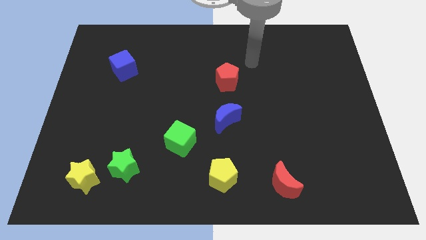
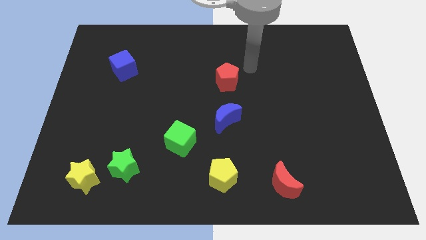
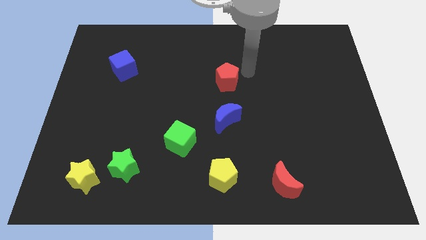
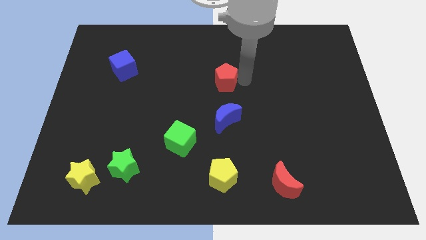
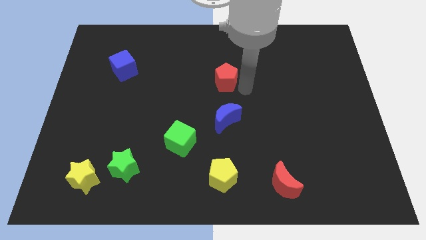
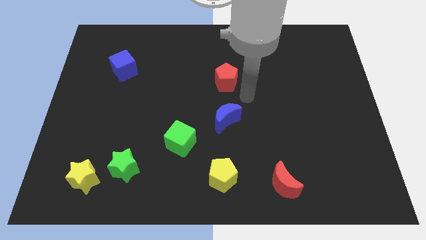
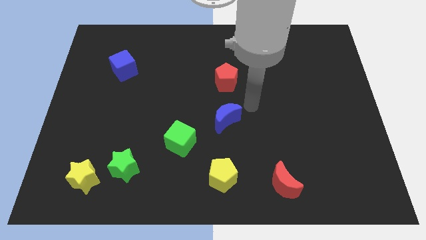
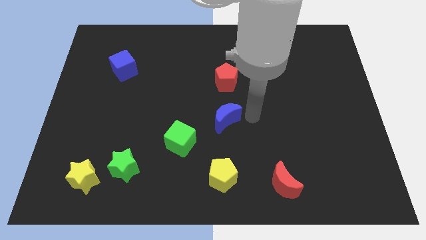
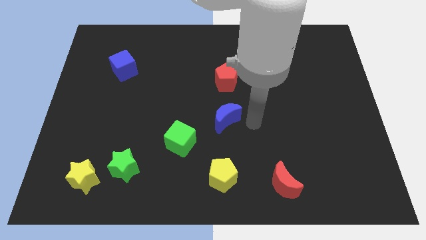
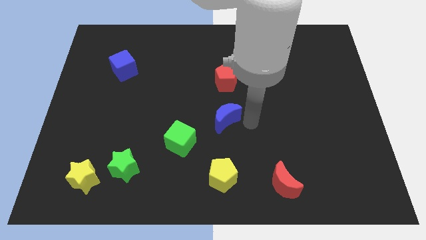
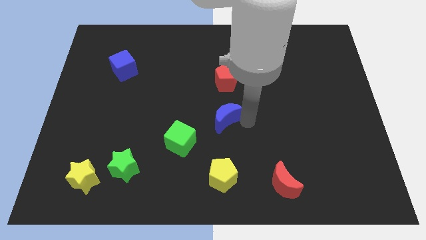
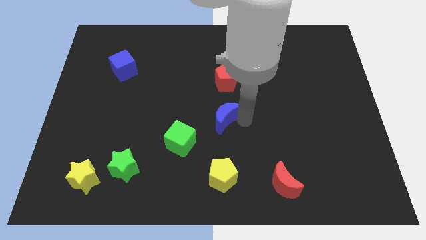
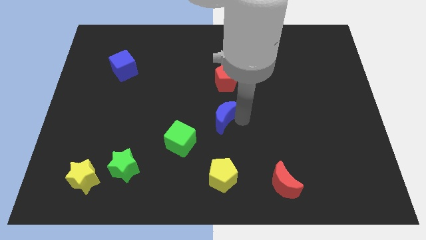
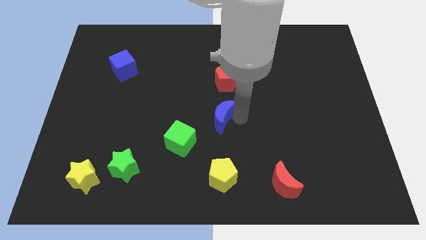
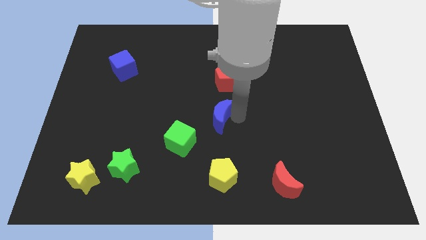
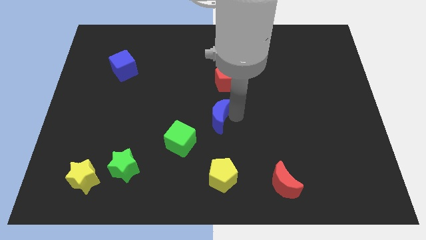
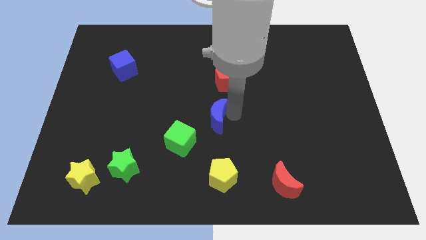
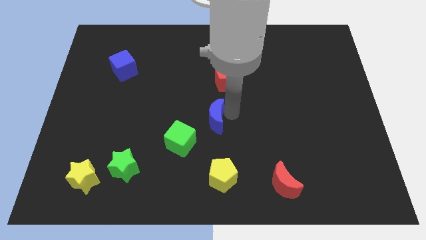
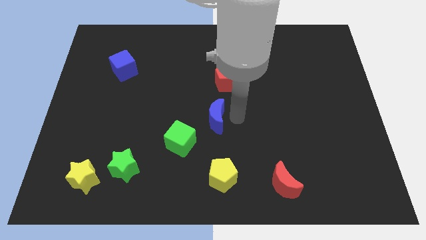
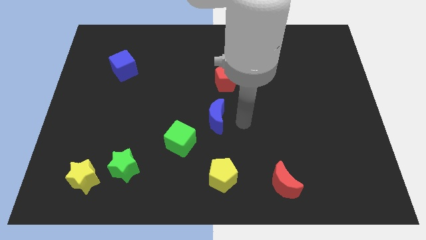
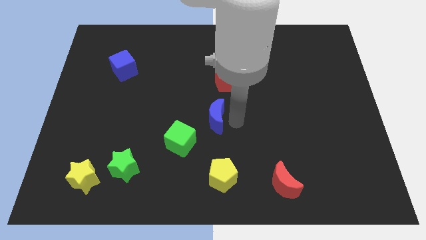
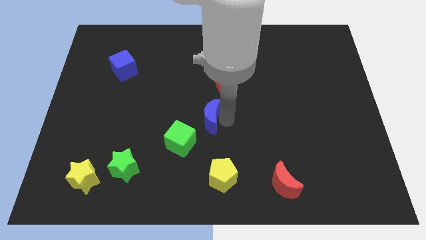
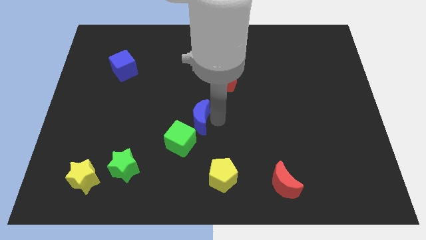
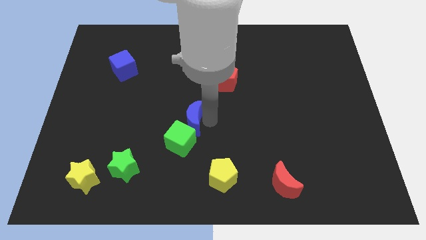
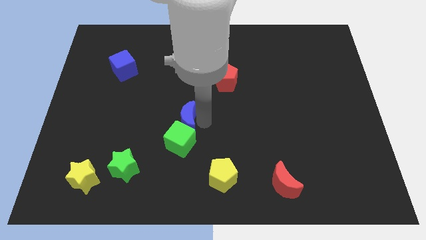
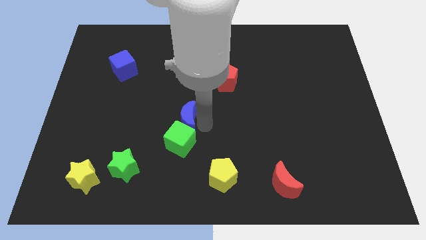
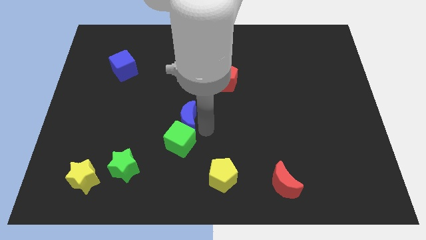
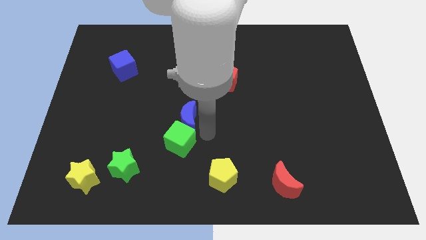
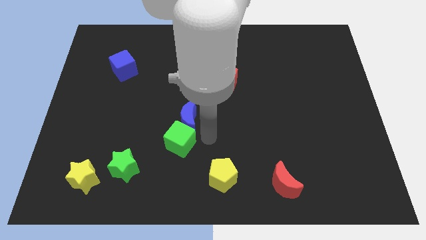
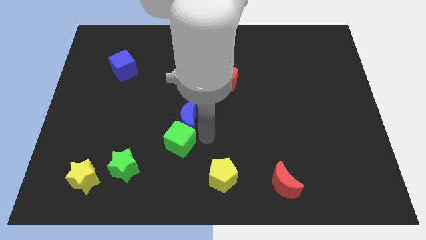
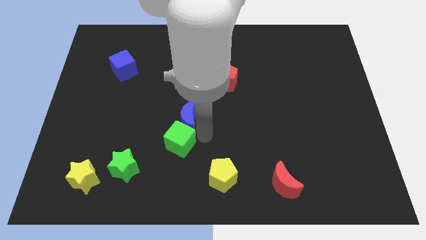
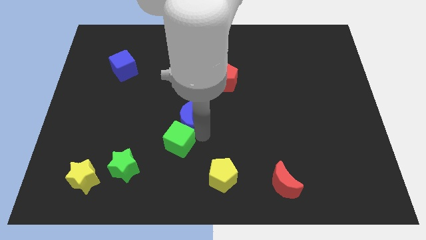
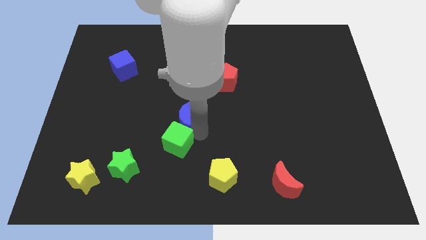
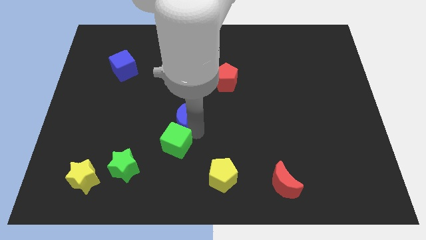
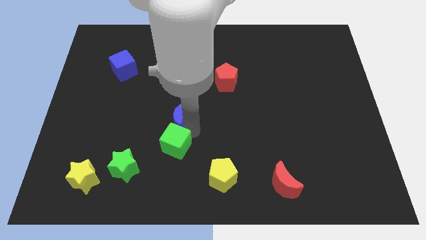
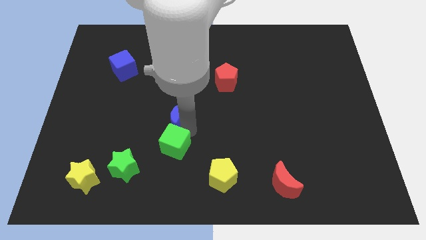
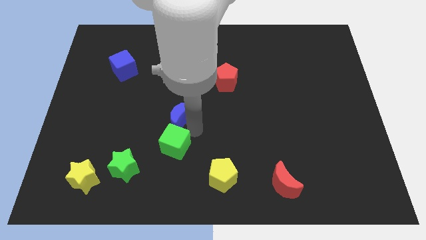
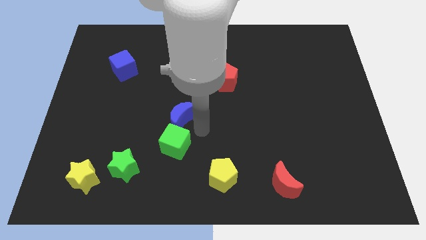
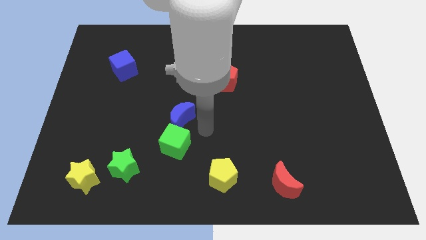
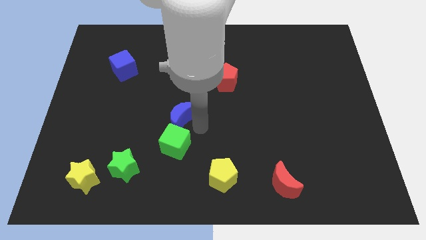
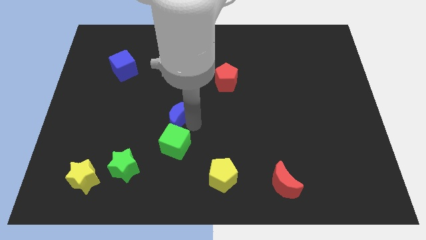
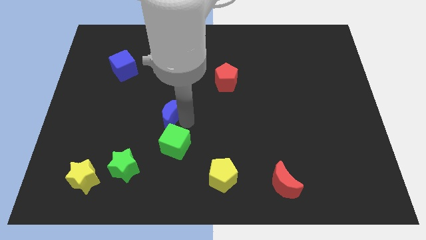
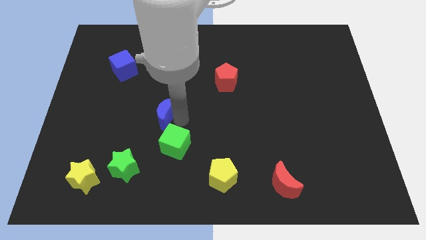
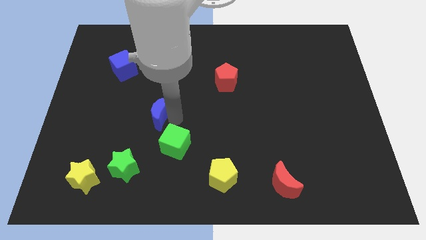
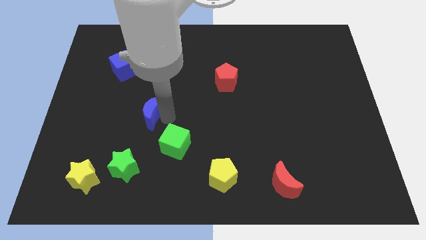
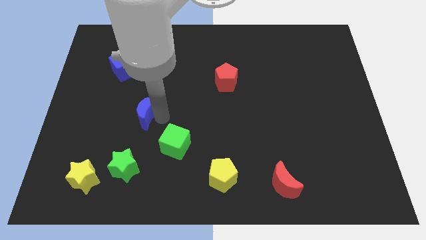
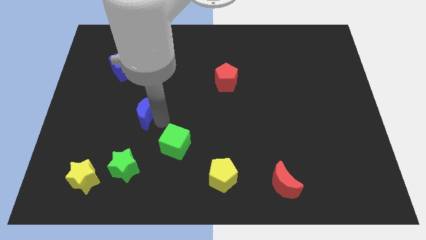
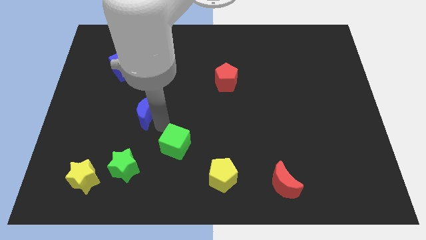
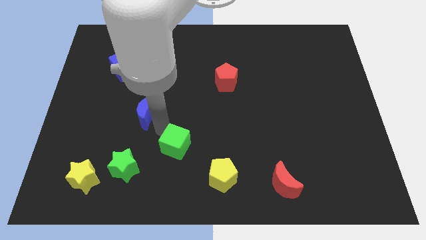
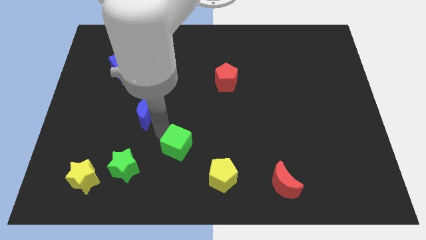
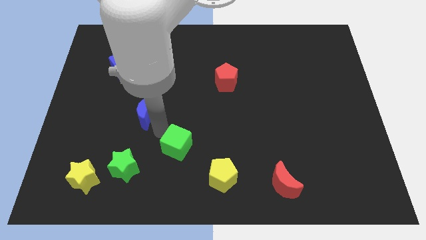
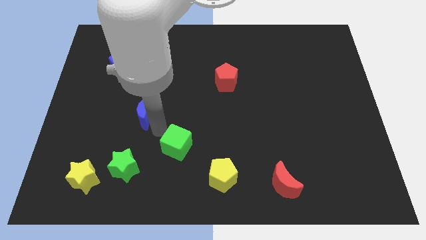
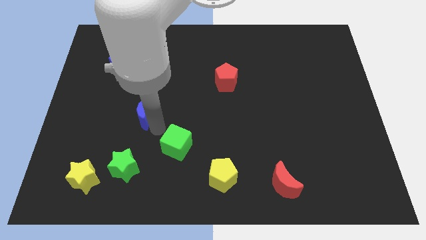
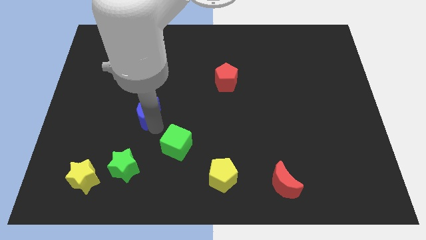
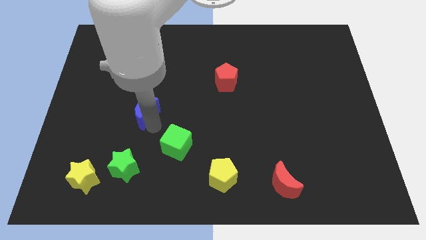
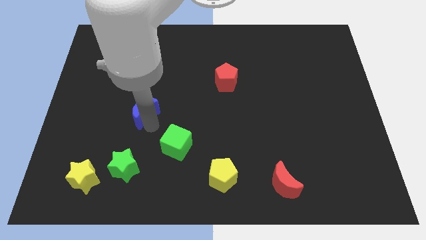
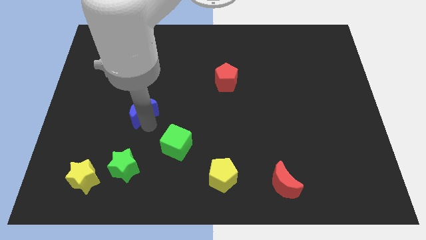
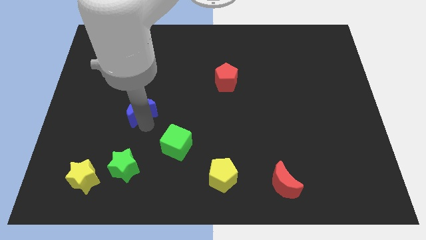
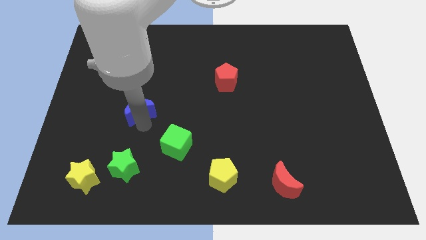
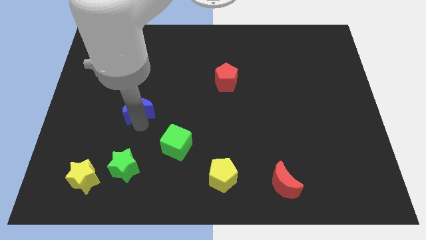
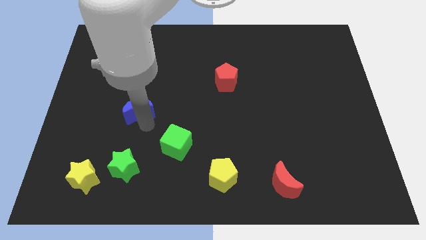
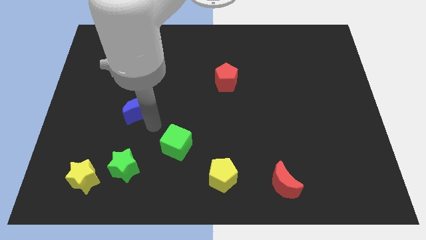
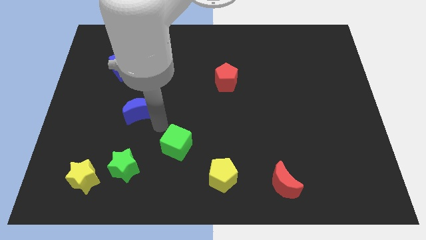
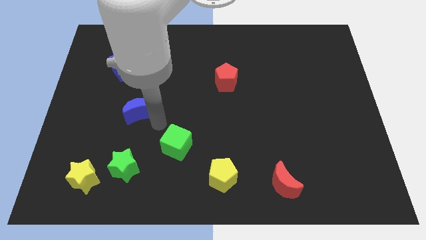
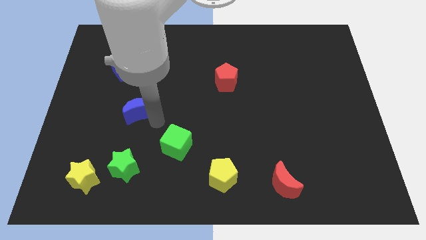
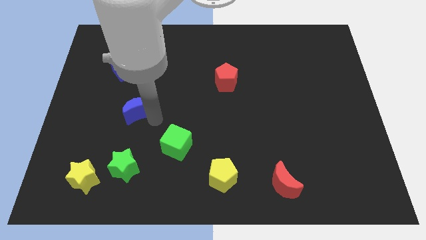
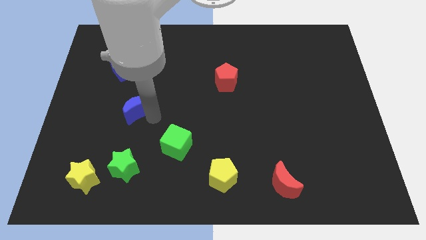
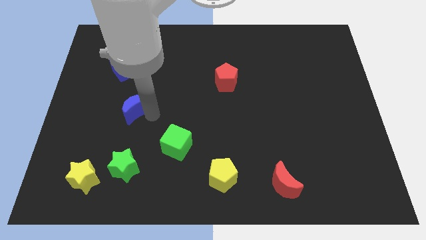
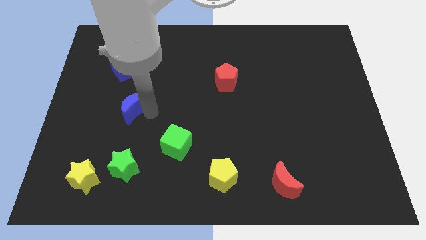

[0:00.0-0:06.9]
put the blue moon below the blue cube
